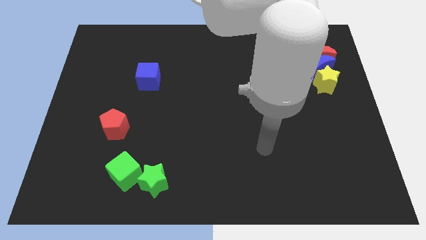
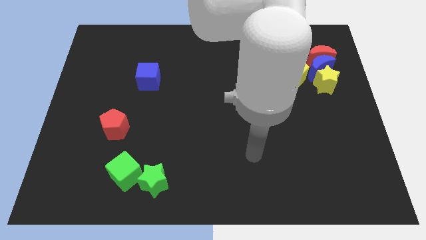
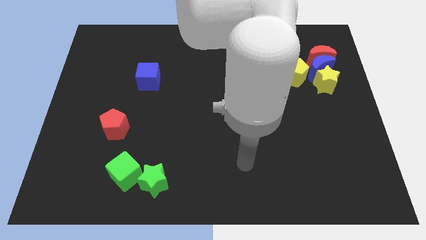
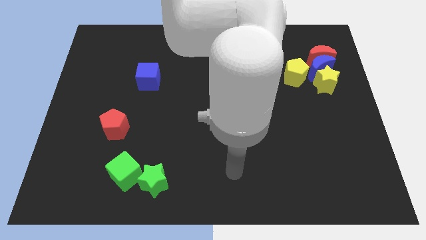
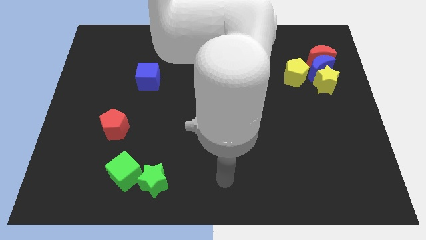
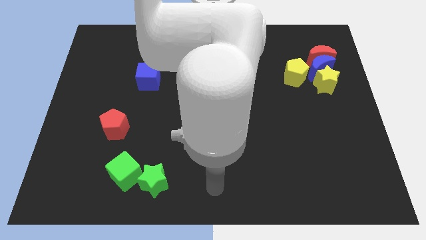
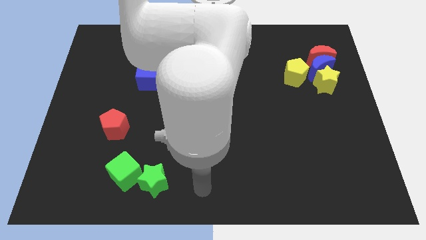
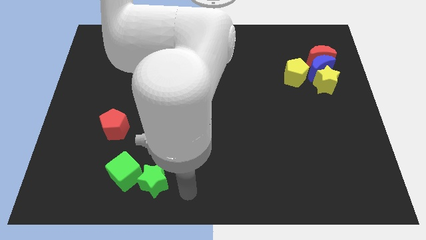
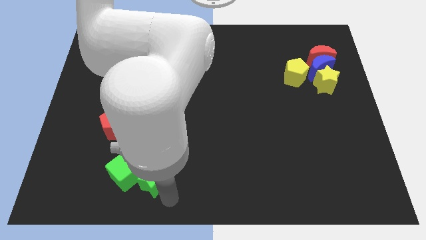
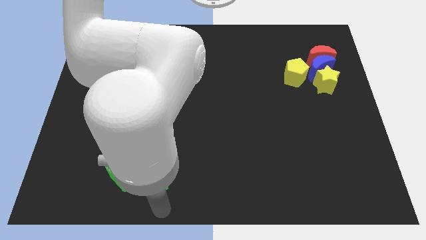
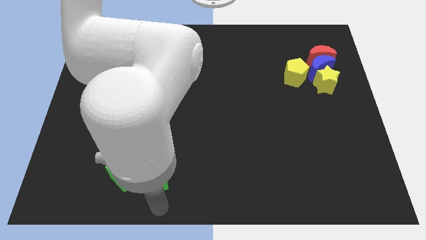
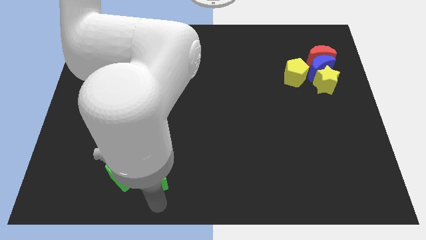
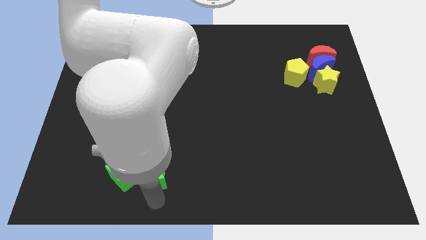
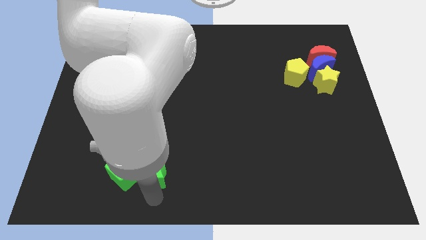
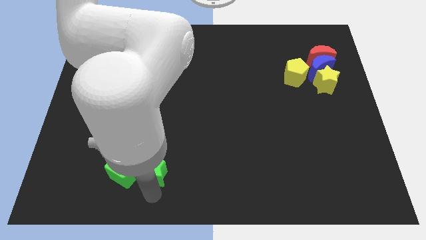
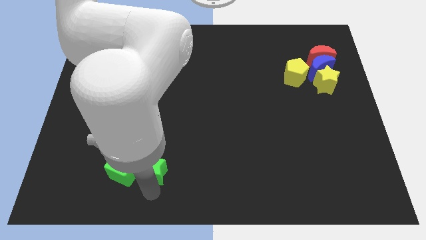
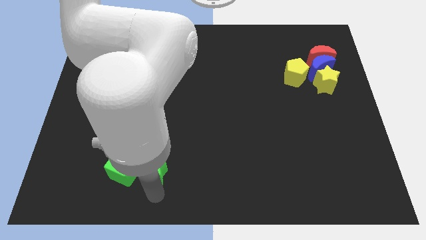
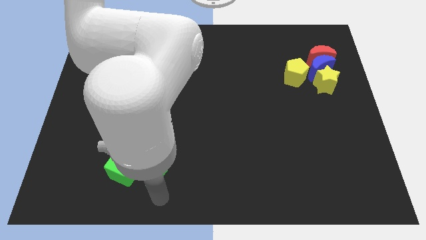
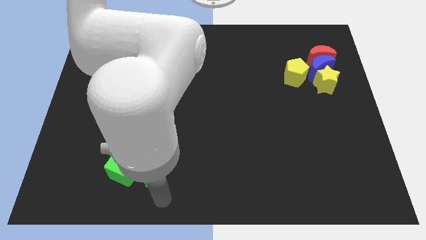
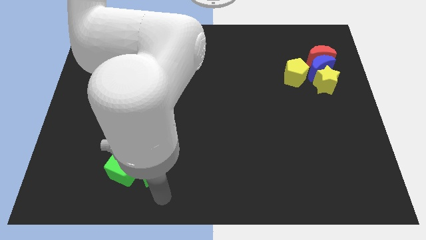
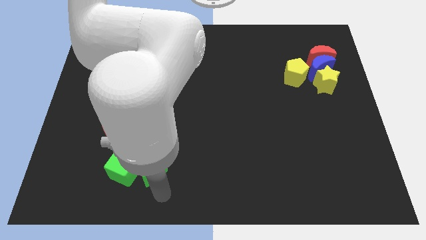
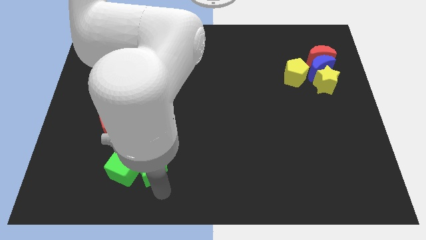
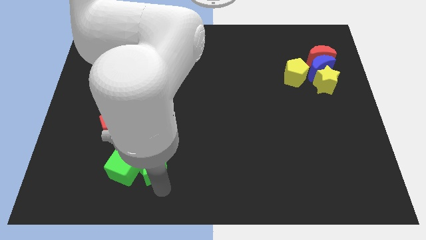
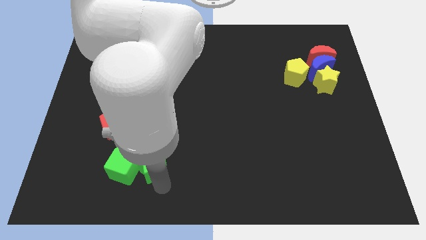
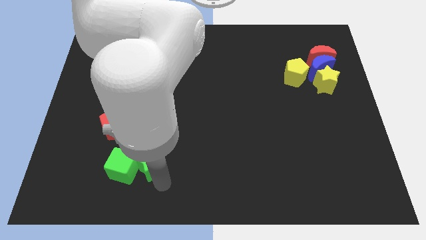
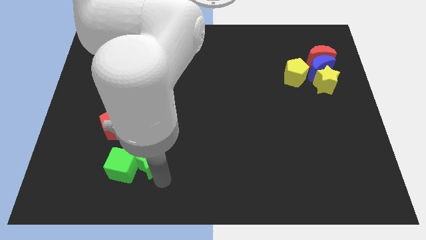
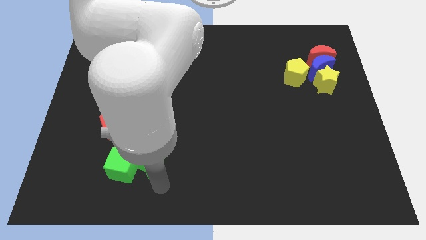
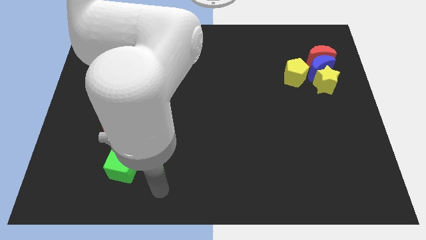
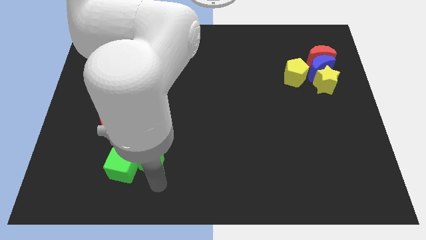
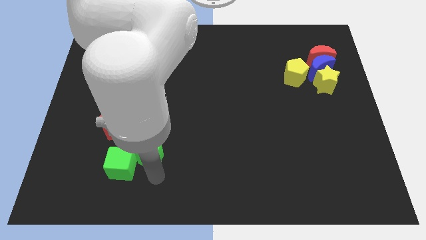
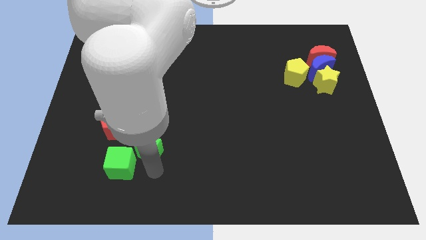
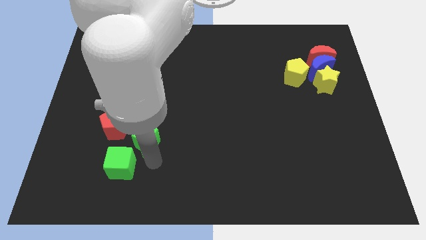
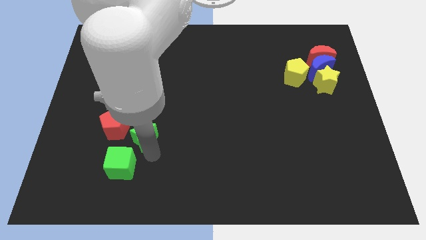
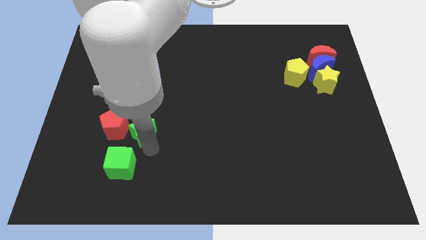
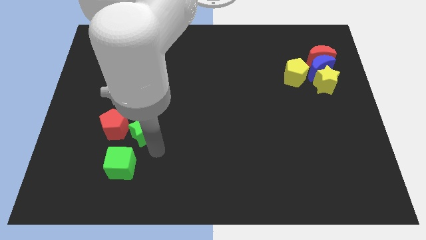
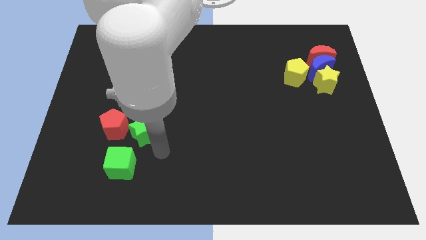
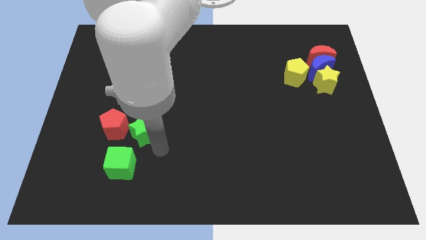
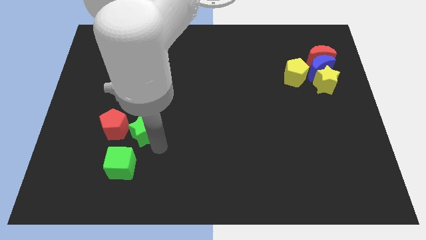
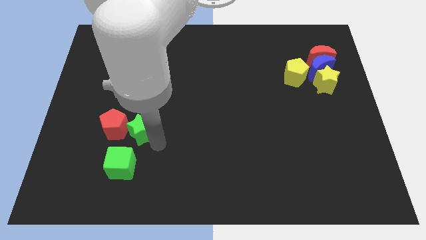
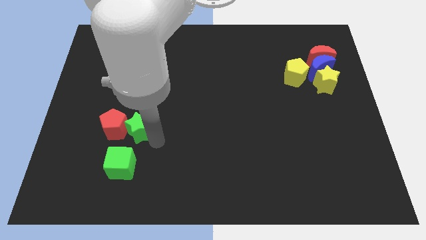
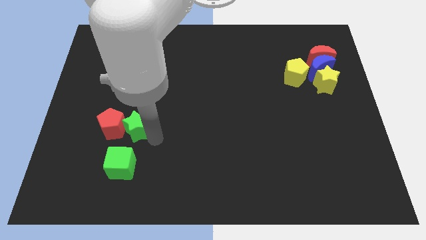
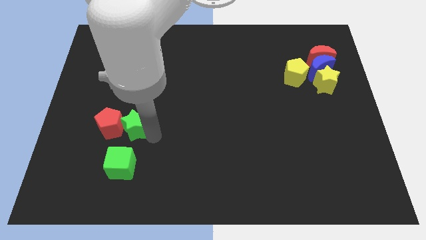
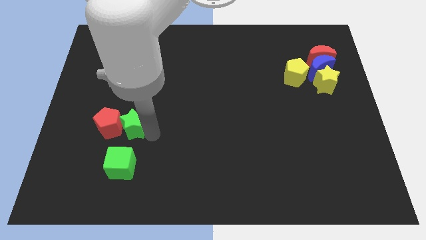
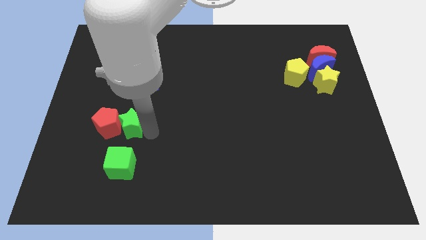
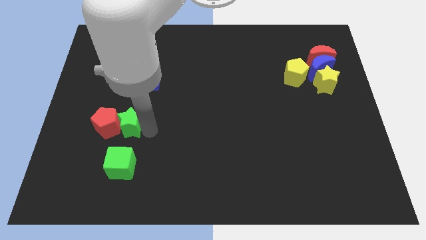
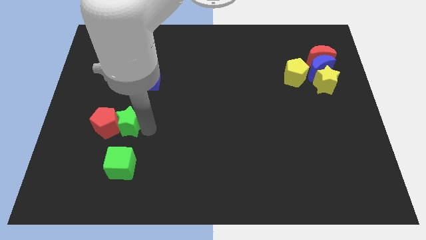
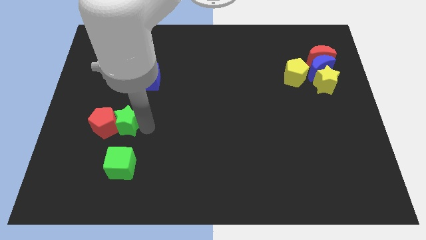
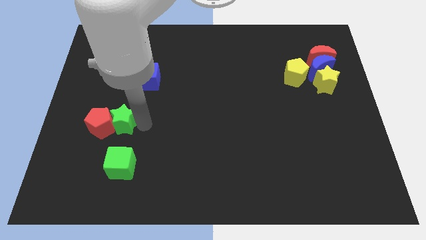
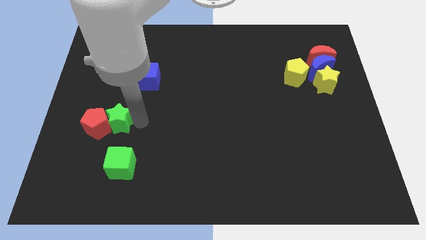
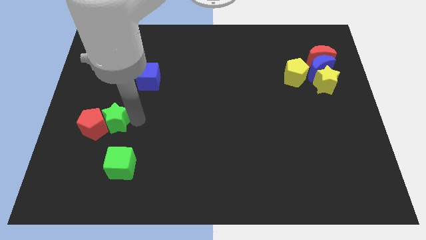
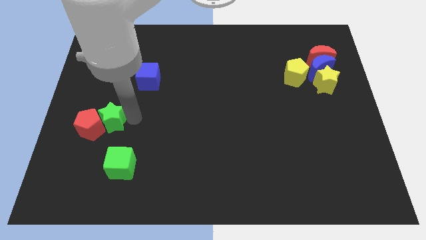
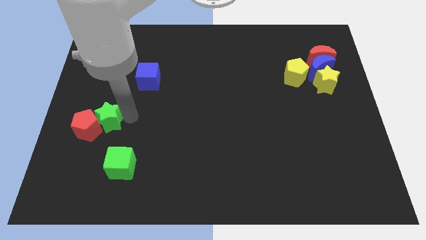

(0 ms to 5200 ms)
move the green star to the top of the red pentagon
